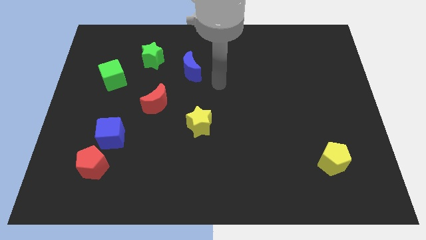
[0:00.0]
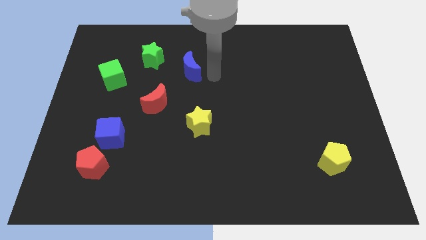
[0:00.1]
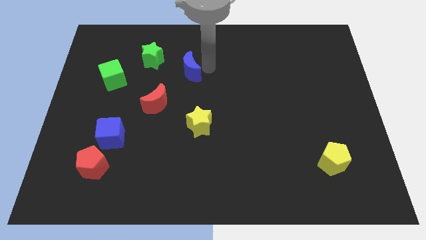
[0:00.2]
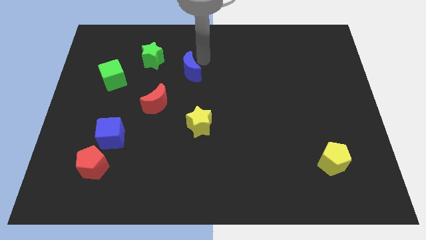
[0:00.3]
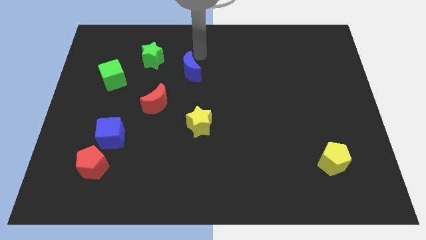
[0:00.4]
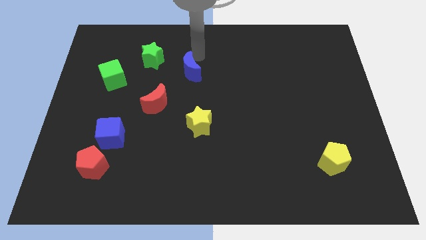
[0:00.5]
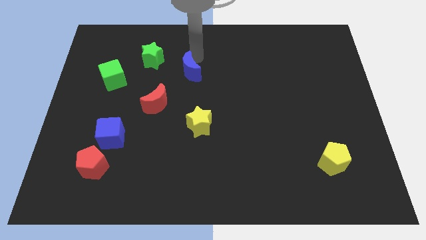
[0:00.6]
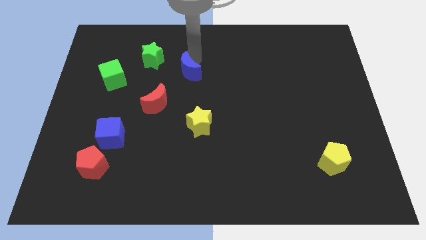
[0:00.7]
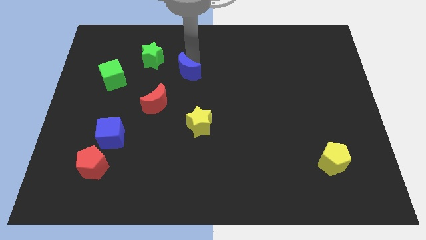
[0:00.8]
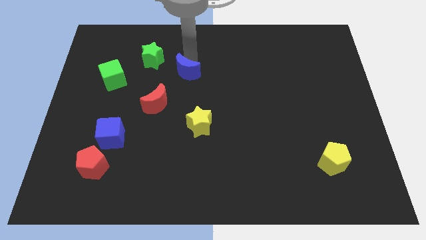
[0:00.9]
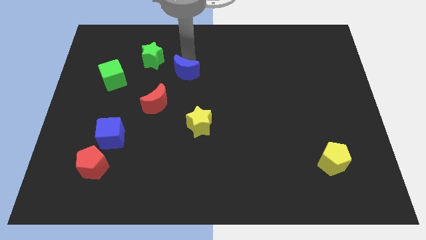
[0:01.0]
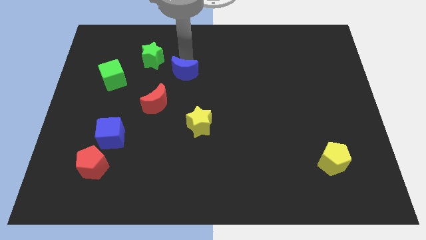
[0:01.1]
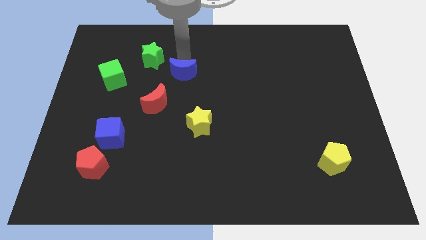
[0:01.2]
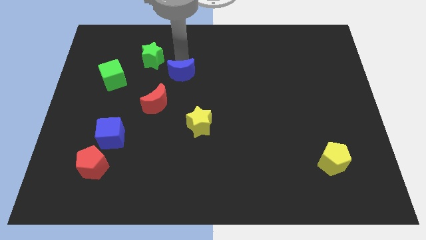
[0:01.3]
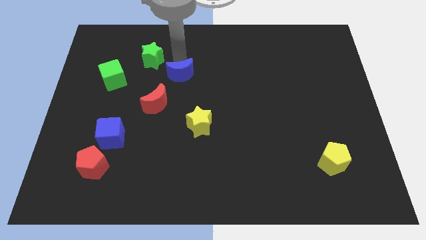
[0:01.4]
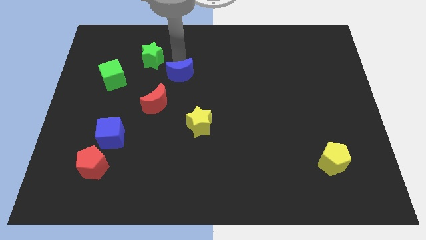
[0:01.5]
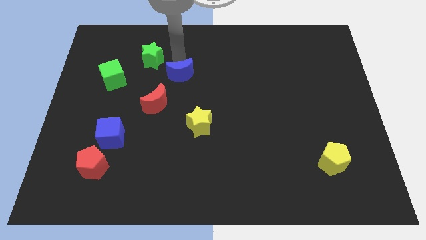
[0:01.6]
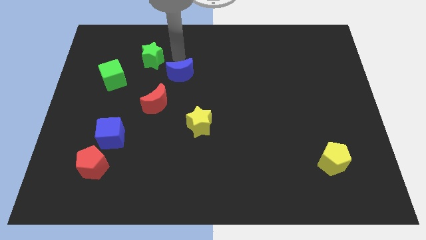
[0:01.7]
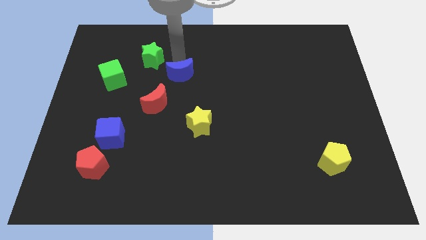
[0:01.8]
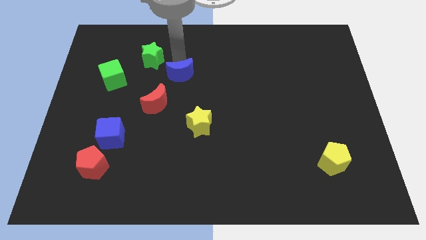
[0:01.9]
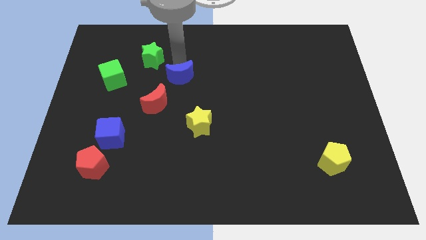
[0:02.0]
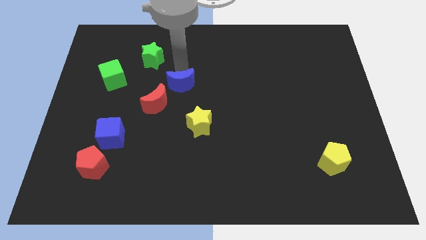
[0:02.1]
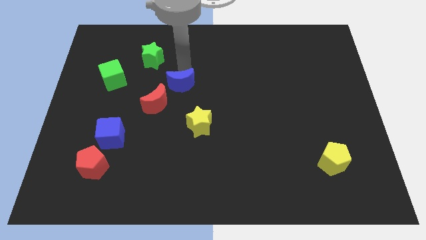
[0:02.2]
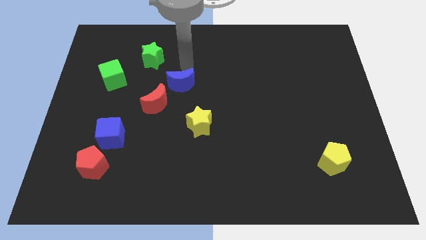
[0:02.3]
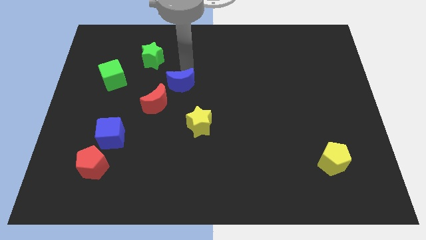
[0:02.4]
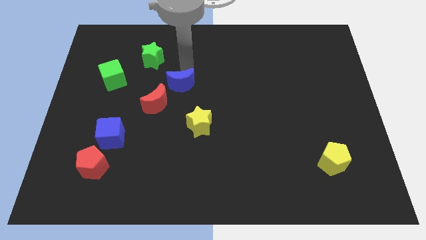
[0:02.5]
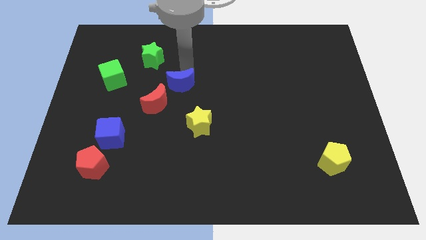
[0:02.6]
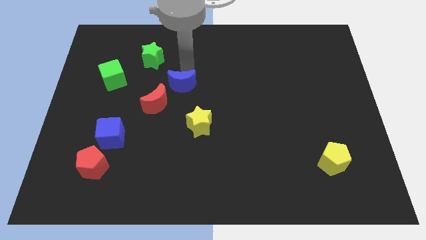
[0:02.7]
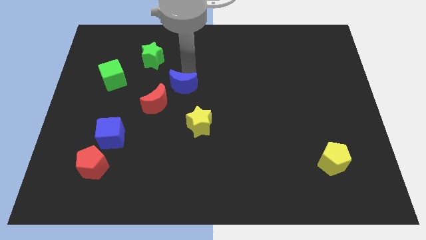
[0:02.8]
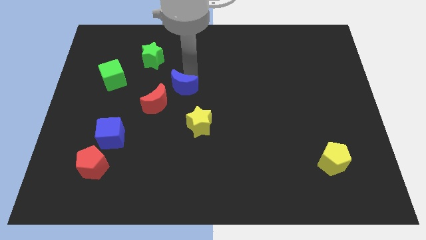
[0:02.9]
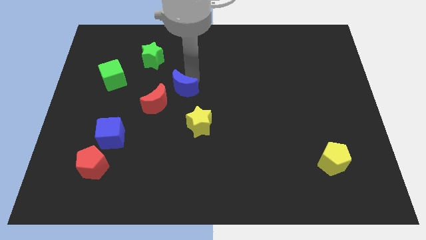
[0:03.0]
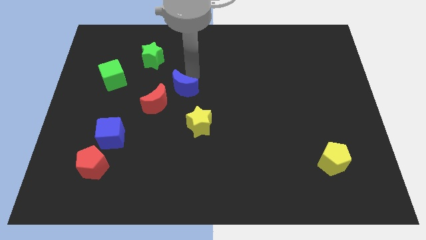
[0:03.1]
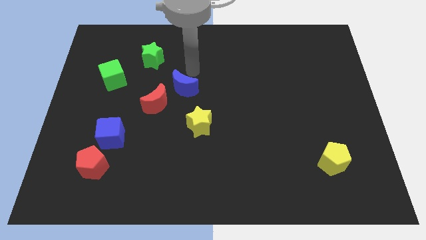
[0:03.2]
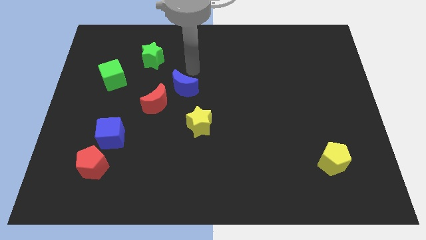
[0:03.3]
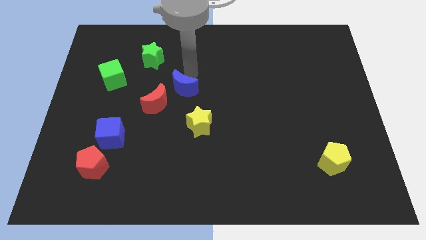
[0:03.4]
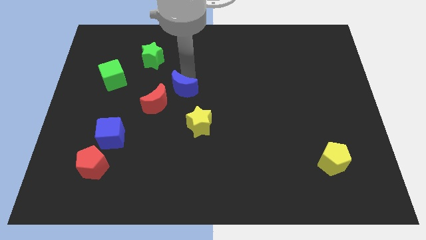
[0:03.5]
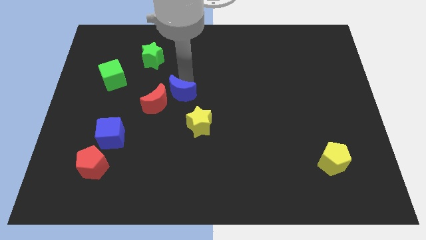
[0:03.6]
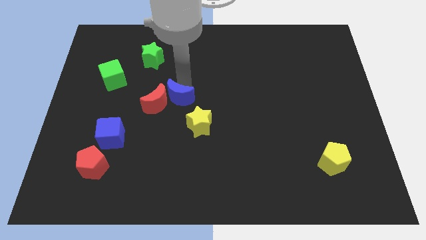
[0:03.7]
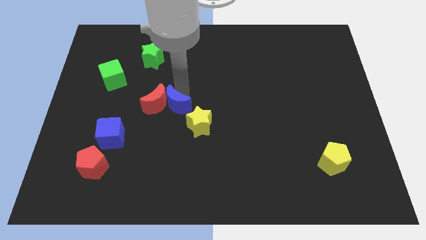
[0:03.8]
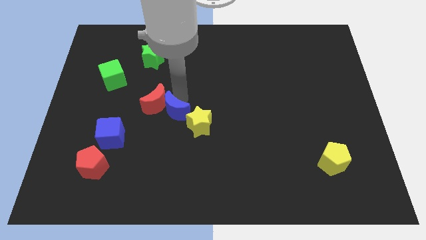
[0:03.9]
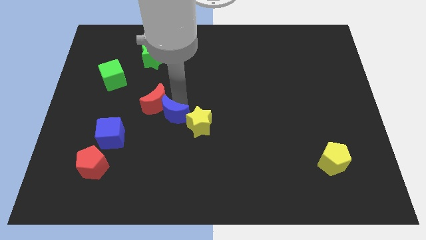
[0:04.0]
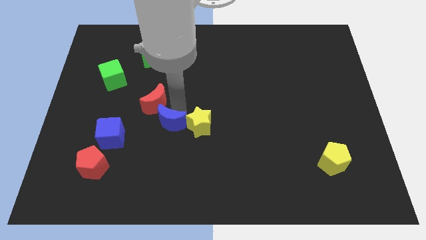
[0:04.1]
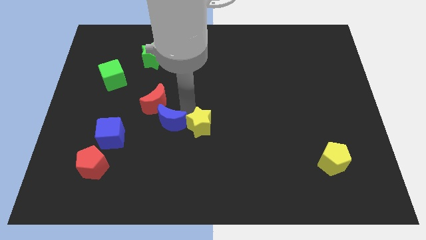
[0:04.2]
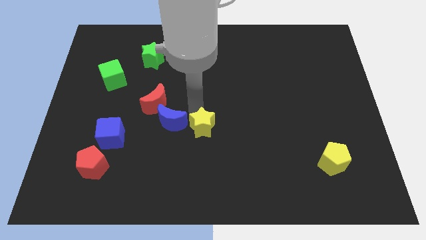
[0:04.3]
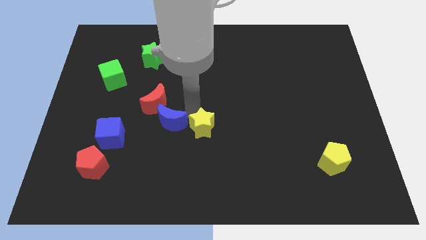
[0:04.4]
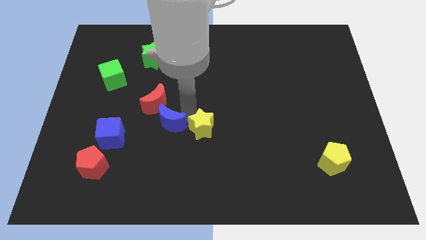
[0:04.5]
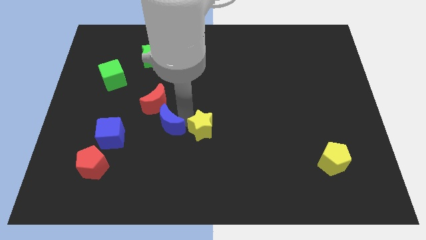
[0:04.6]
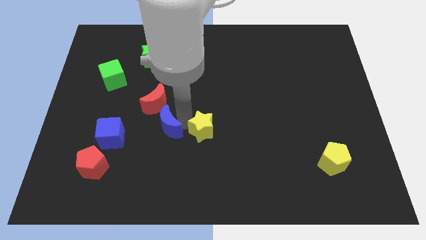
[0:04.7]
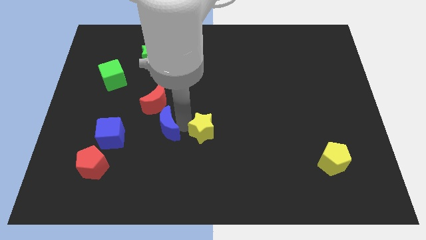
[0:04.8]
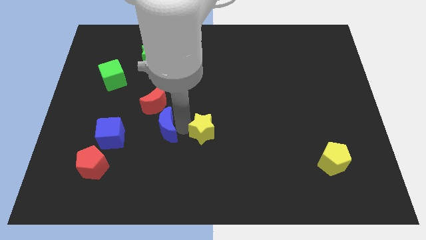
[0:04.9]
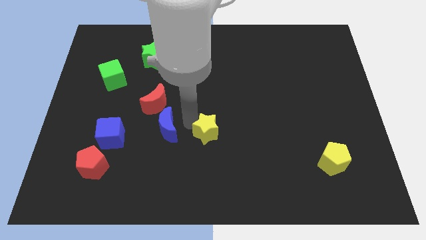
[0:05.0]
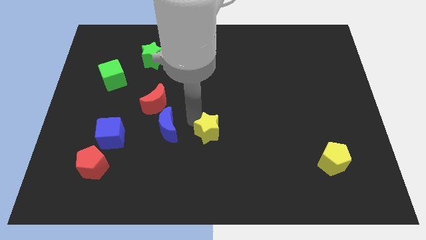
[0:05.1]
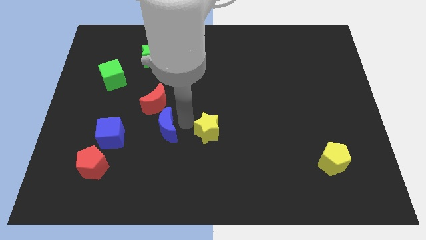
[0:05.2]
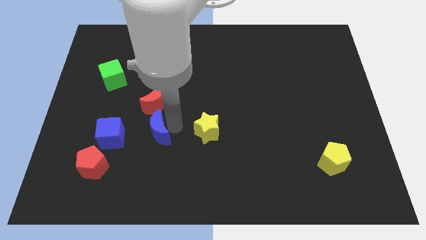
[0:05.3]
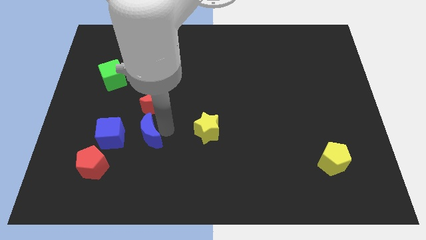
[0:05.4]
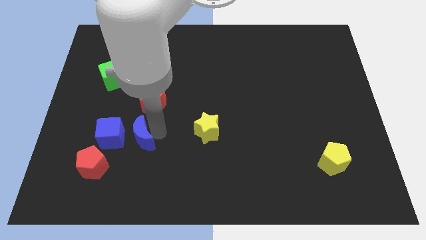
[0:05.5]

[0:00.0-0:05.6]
push the blue moon to the top right side of the red pentagon

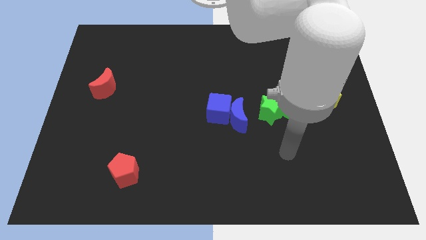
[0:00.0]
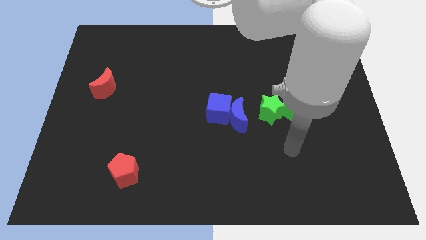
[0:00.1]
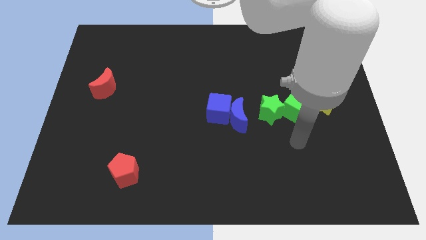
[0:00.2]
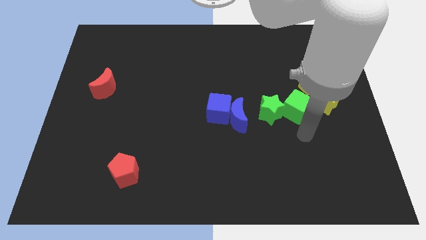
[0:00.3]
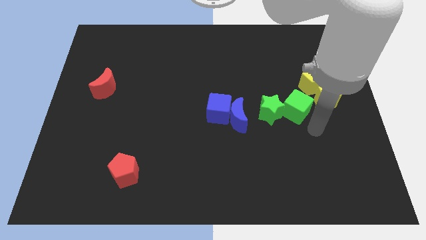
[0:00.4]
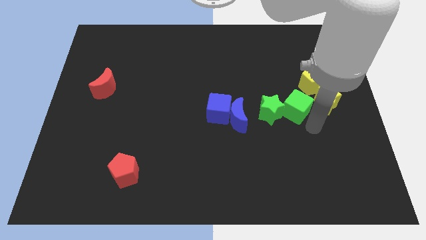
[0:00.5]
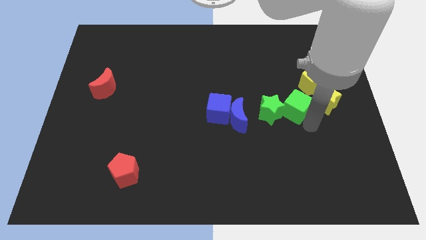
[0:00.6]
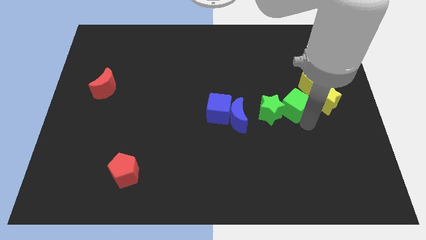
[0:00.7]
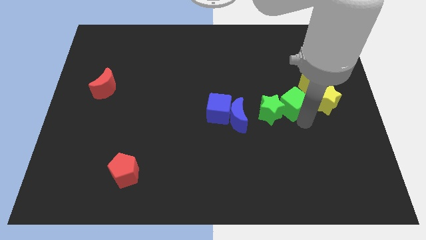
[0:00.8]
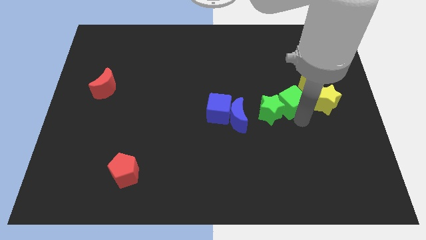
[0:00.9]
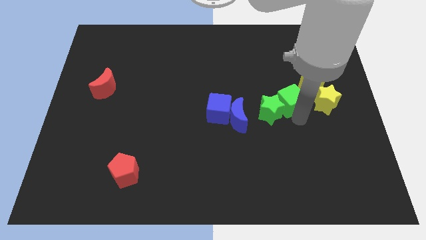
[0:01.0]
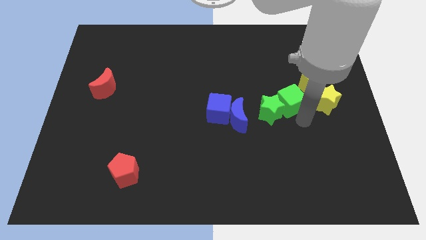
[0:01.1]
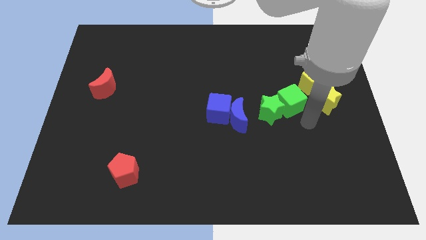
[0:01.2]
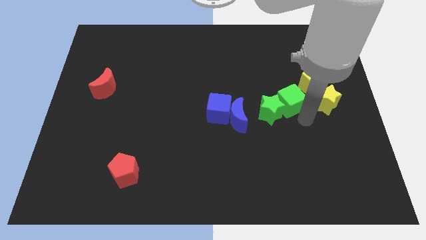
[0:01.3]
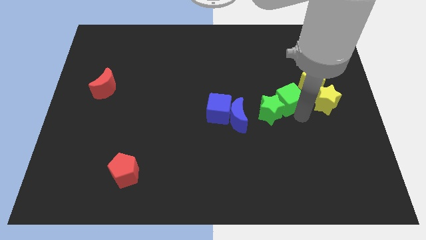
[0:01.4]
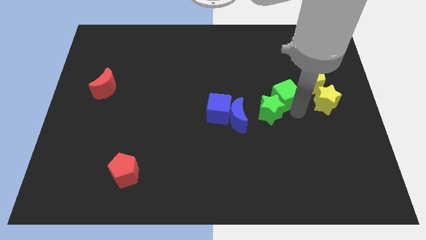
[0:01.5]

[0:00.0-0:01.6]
move the green cube to the left side of the yellow pentagon
